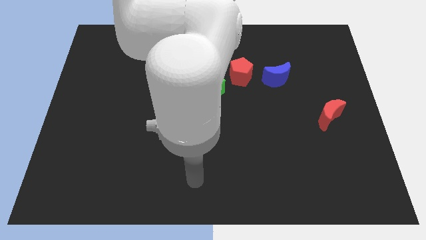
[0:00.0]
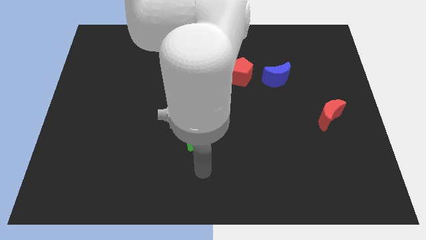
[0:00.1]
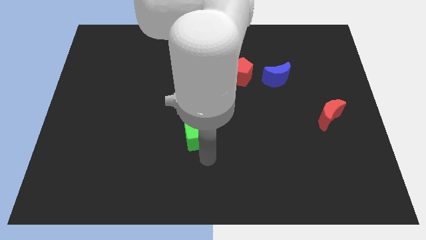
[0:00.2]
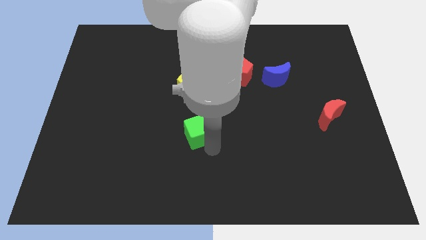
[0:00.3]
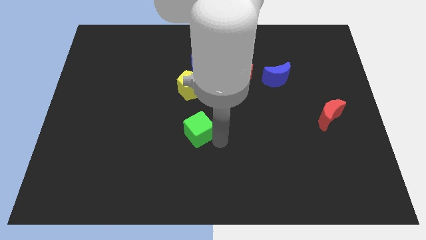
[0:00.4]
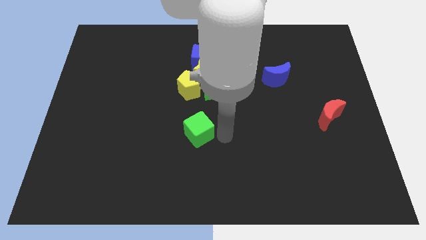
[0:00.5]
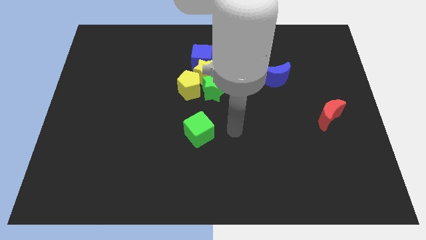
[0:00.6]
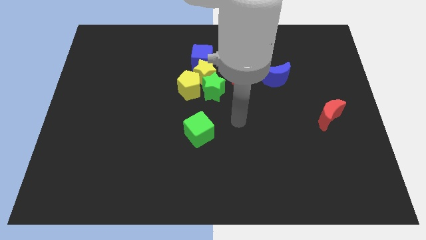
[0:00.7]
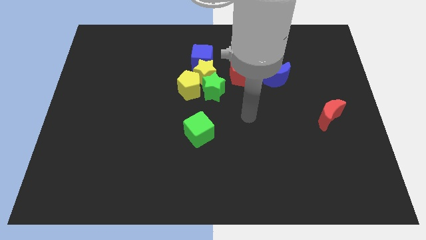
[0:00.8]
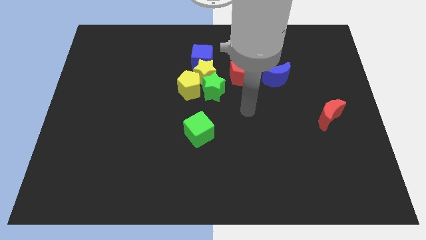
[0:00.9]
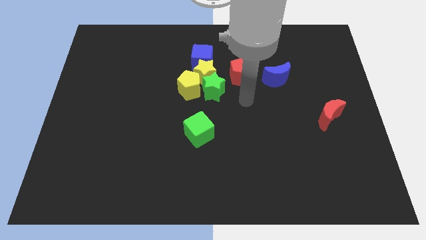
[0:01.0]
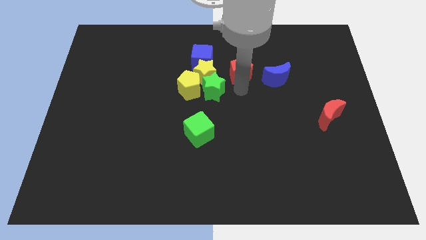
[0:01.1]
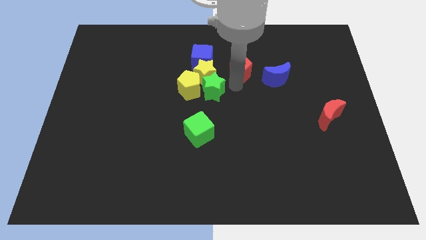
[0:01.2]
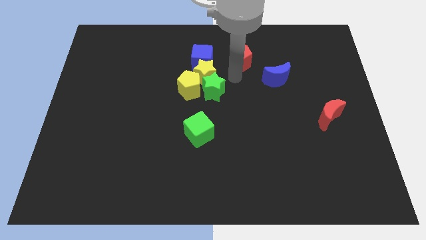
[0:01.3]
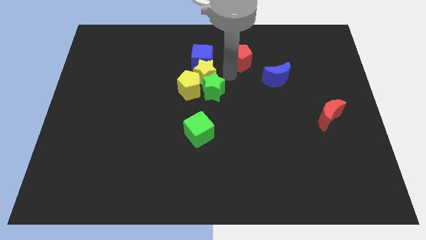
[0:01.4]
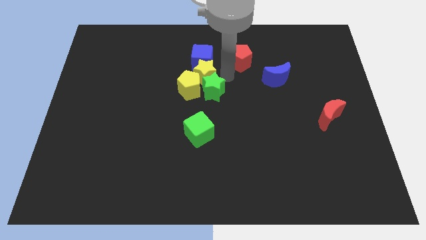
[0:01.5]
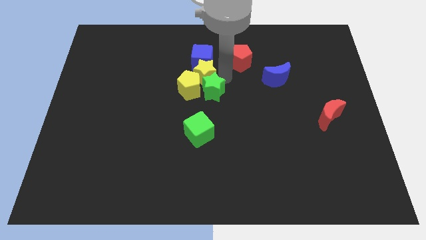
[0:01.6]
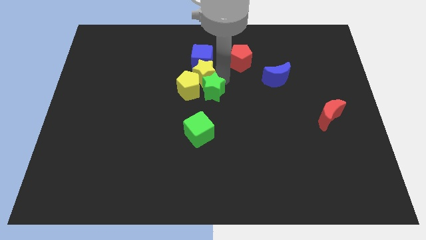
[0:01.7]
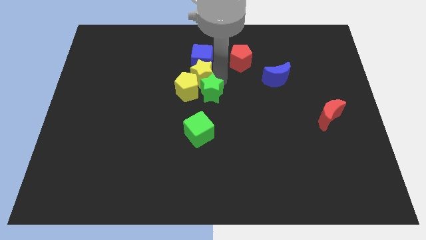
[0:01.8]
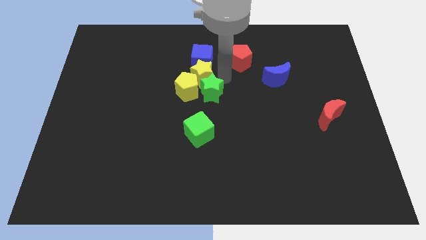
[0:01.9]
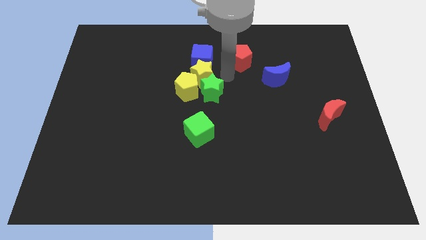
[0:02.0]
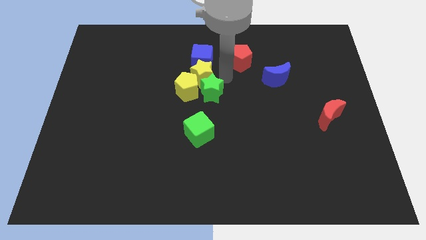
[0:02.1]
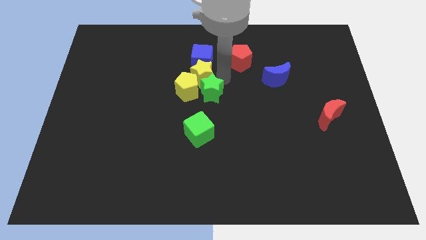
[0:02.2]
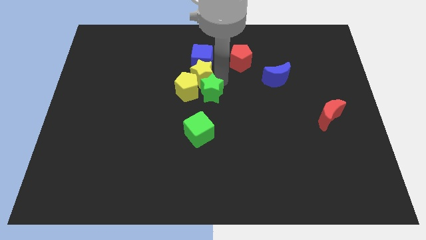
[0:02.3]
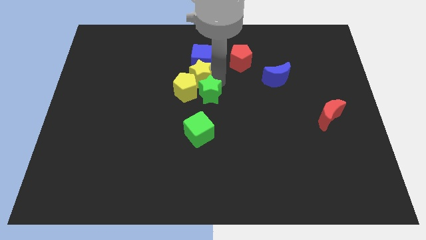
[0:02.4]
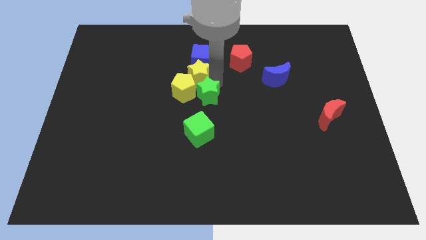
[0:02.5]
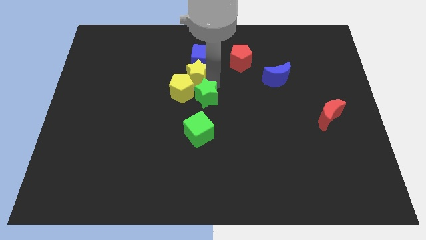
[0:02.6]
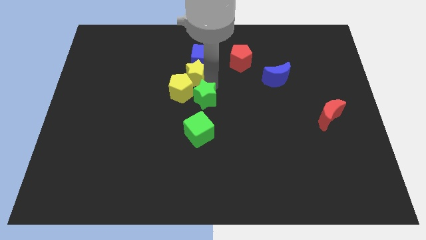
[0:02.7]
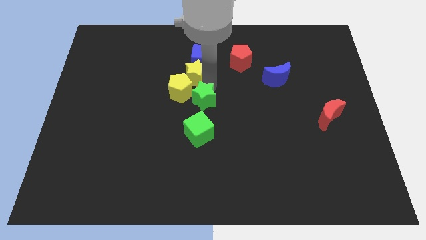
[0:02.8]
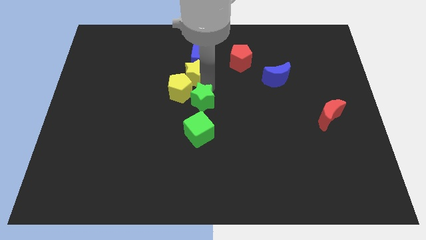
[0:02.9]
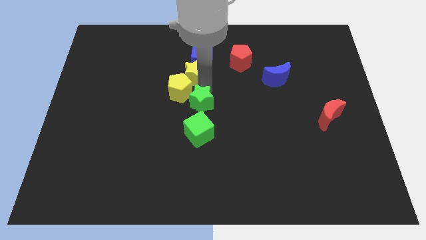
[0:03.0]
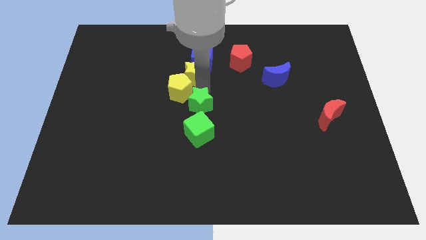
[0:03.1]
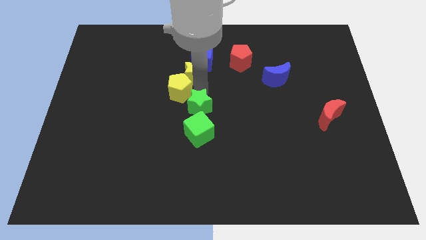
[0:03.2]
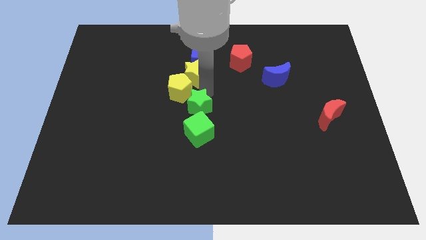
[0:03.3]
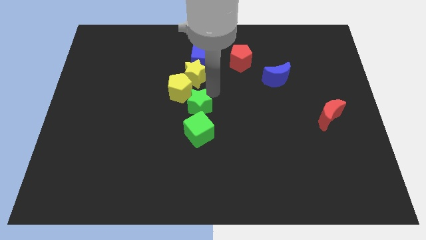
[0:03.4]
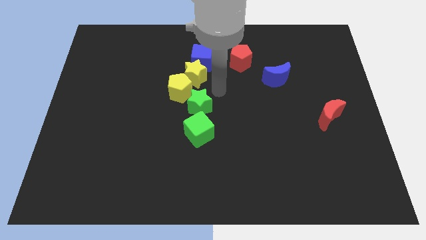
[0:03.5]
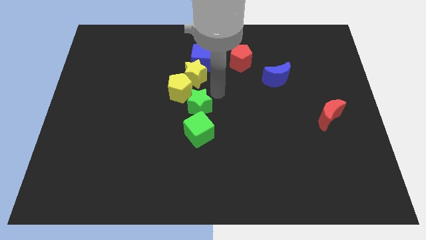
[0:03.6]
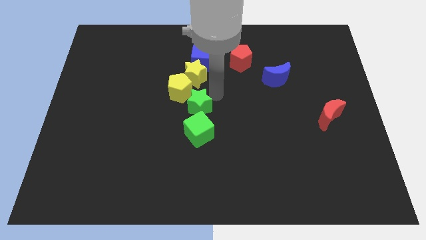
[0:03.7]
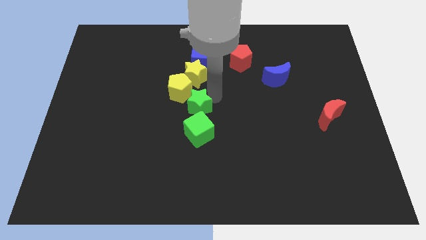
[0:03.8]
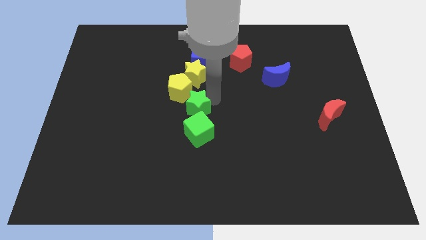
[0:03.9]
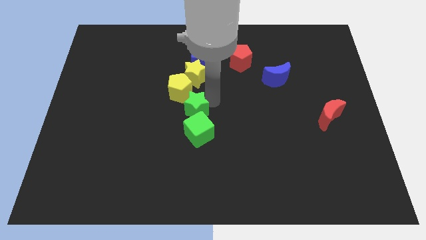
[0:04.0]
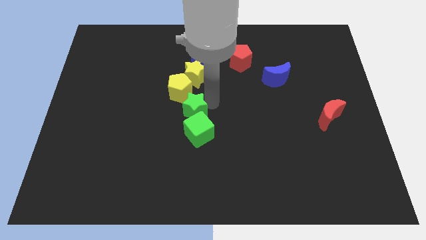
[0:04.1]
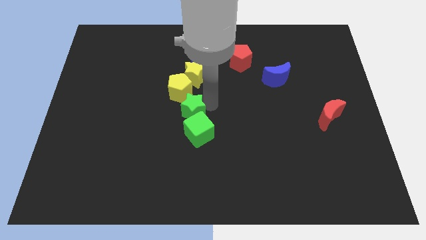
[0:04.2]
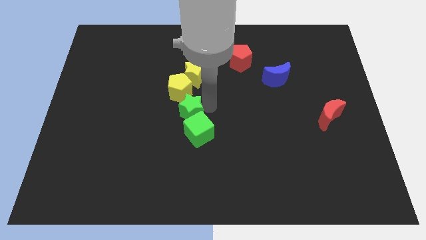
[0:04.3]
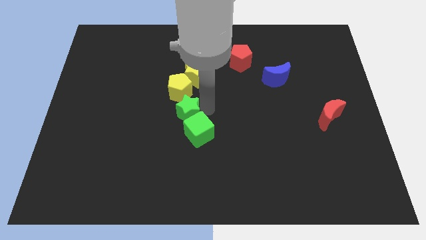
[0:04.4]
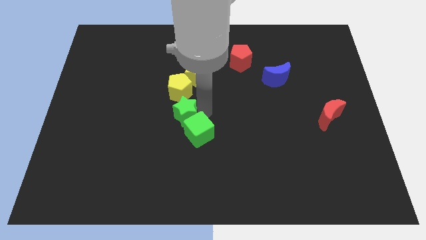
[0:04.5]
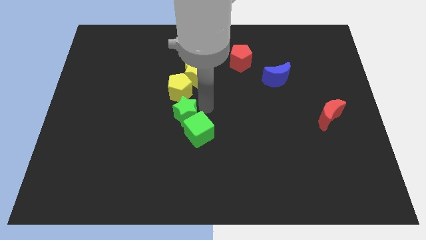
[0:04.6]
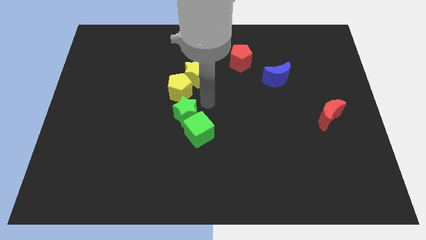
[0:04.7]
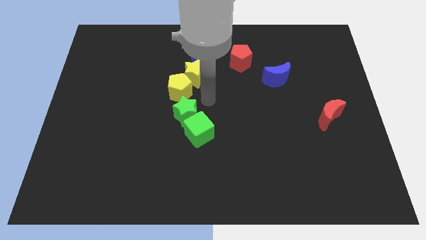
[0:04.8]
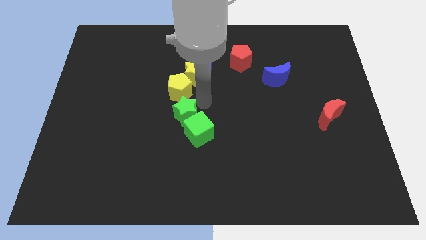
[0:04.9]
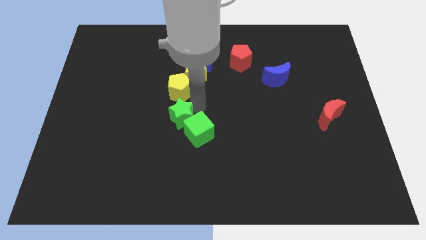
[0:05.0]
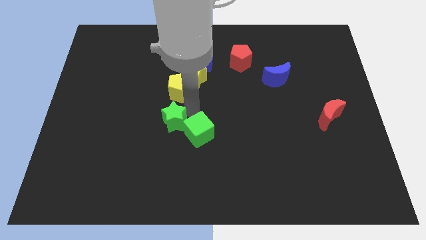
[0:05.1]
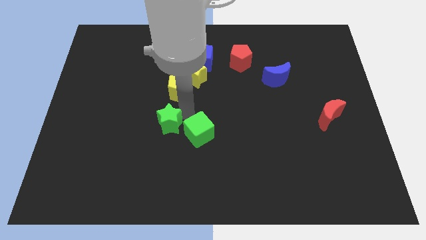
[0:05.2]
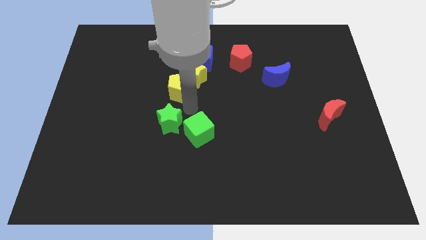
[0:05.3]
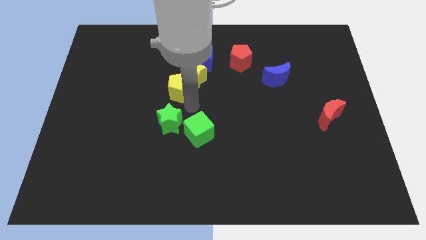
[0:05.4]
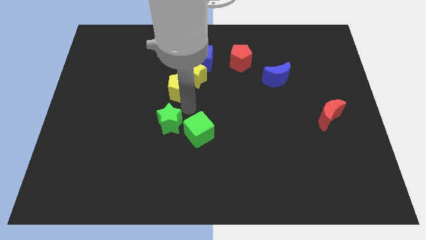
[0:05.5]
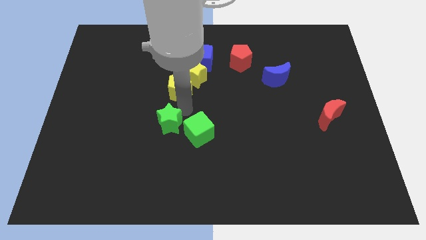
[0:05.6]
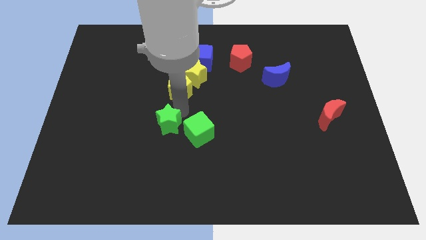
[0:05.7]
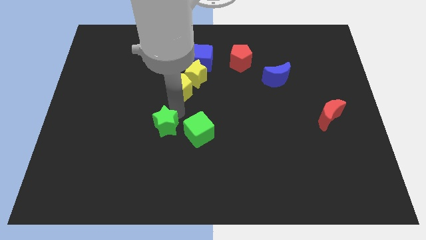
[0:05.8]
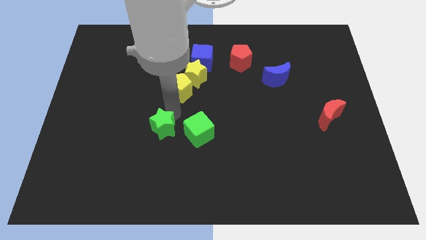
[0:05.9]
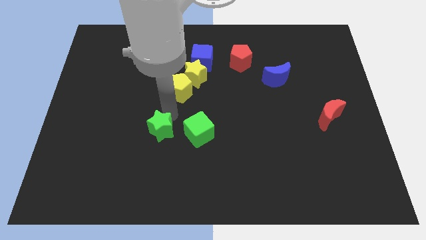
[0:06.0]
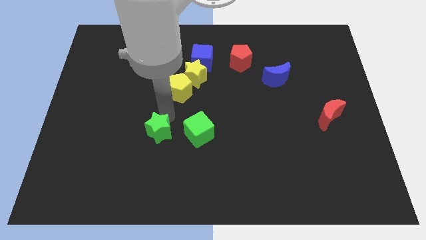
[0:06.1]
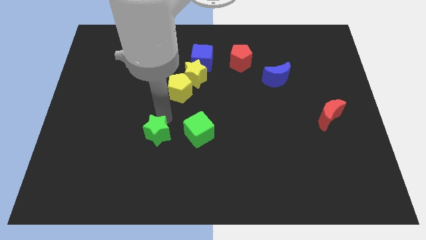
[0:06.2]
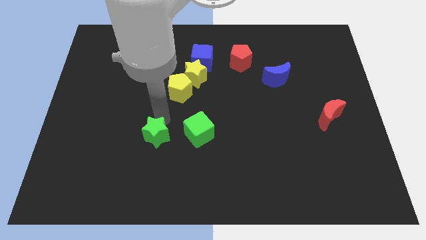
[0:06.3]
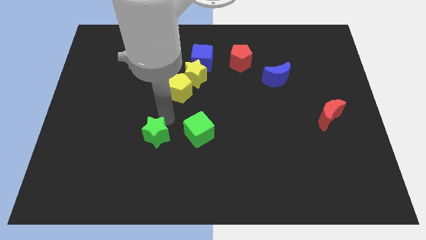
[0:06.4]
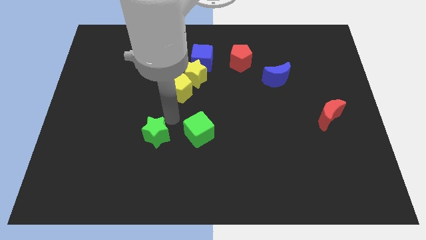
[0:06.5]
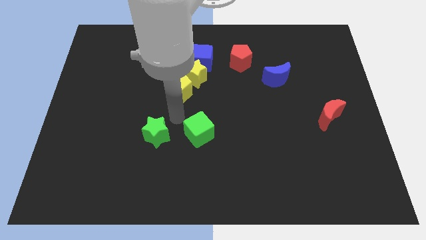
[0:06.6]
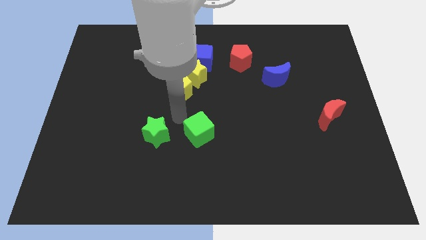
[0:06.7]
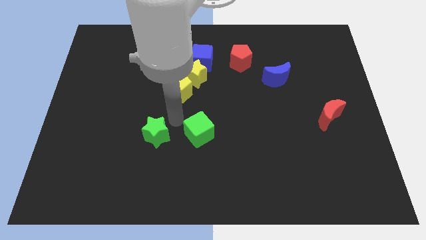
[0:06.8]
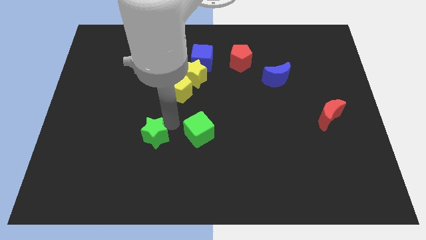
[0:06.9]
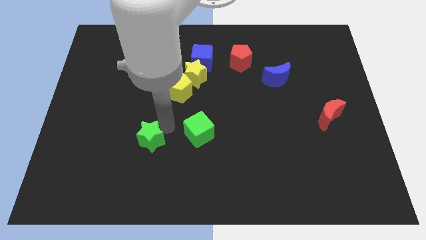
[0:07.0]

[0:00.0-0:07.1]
push the green star down and left diagonally

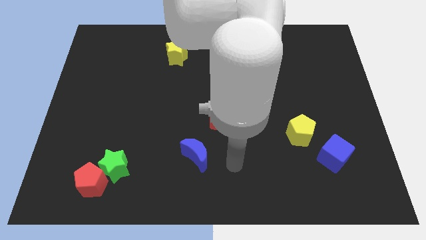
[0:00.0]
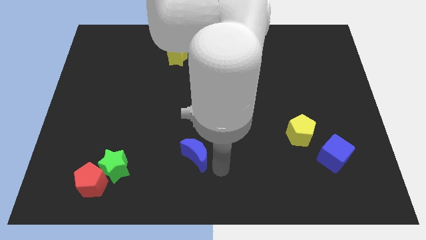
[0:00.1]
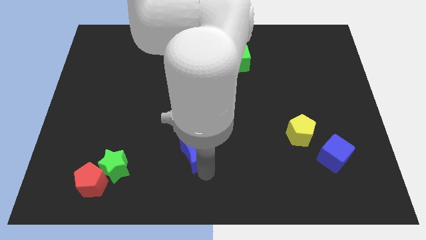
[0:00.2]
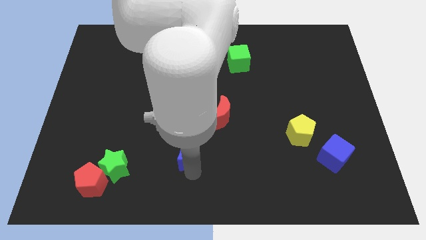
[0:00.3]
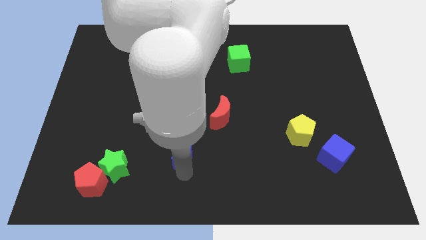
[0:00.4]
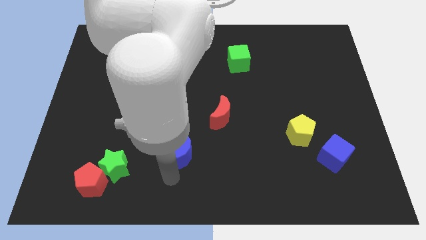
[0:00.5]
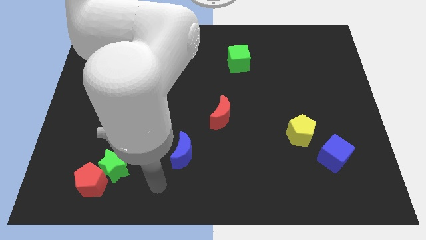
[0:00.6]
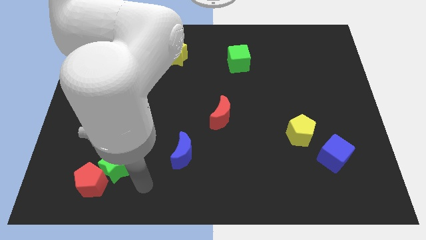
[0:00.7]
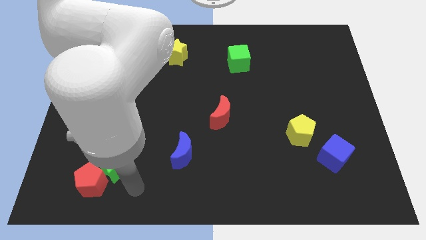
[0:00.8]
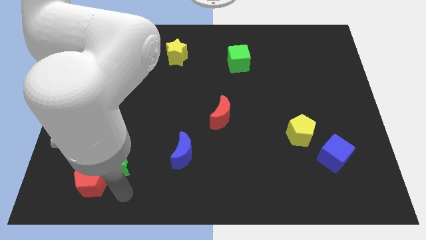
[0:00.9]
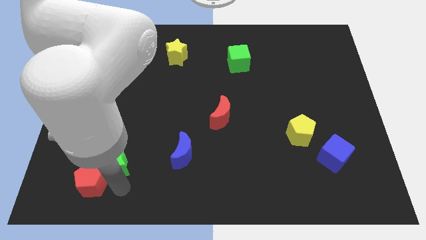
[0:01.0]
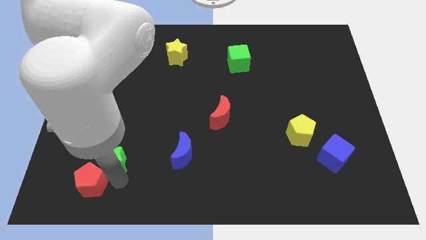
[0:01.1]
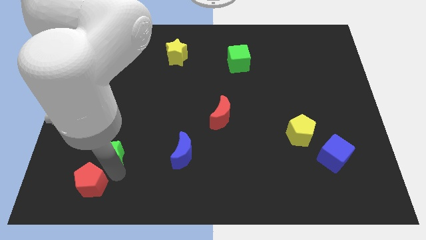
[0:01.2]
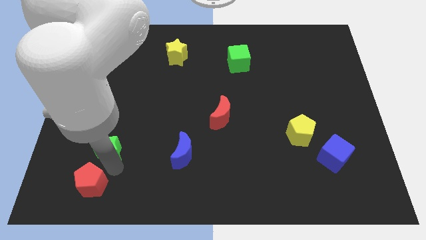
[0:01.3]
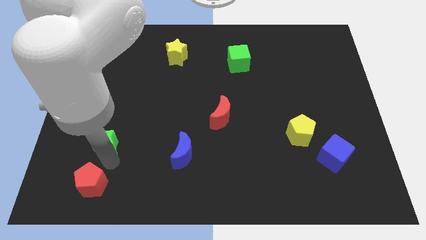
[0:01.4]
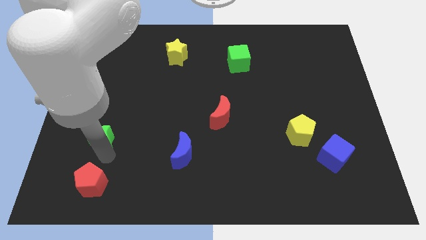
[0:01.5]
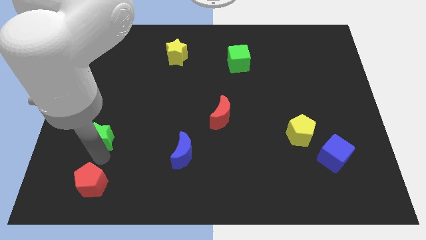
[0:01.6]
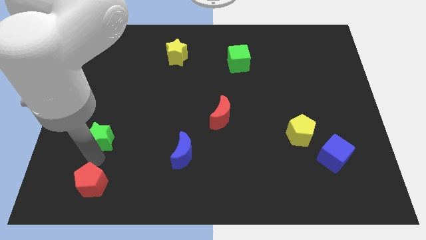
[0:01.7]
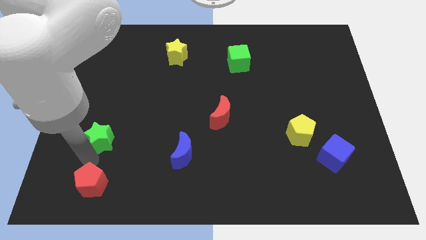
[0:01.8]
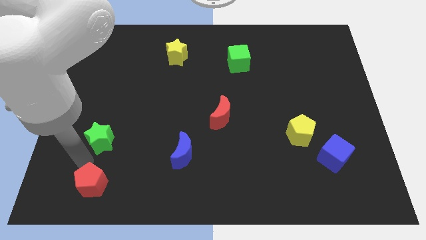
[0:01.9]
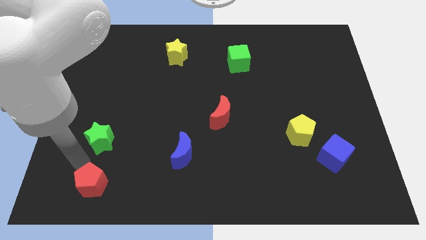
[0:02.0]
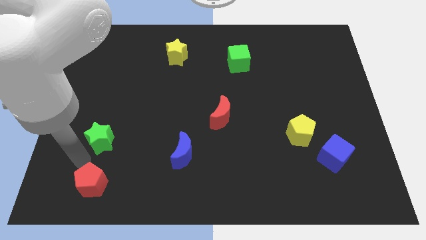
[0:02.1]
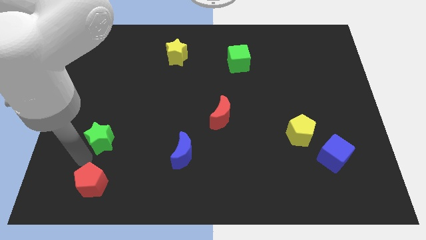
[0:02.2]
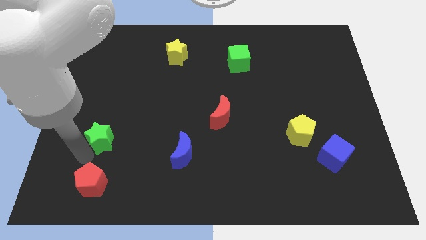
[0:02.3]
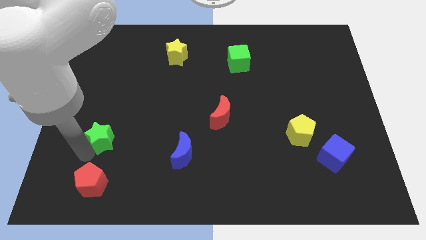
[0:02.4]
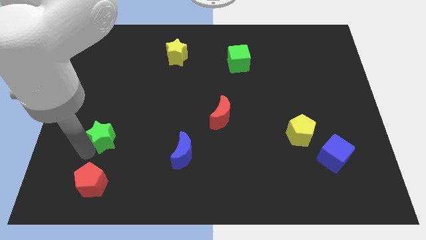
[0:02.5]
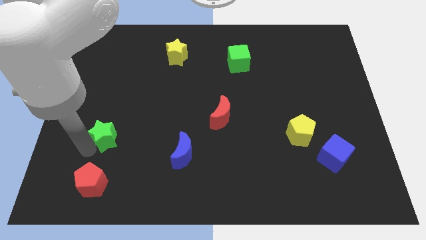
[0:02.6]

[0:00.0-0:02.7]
slightly move the green star up
